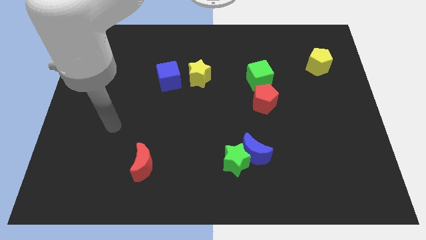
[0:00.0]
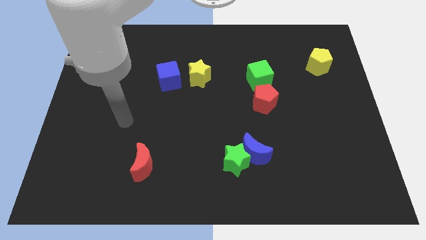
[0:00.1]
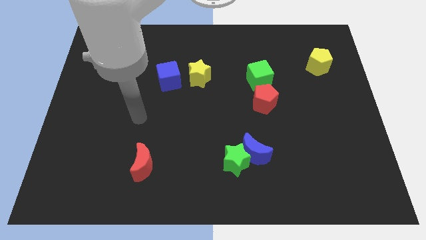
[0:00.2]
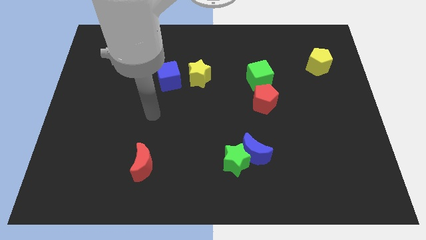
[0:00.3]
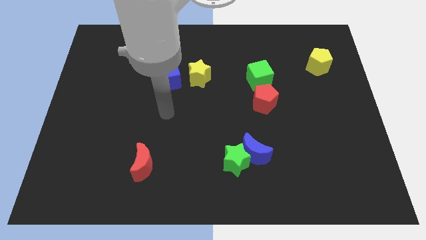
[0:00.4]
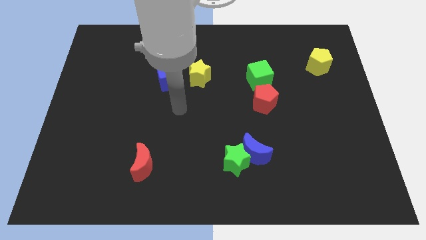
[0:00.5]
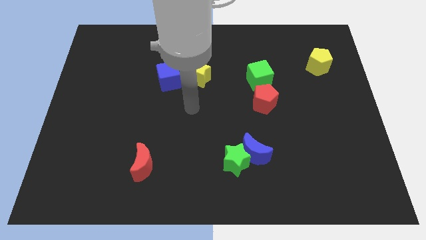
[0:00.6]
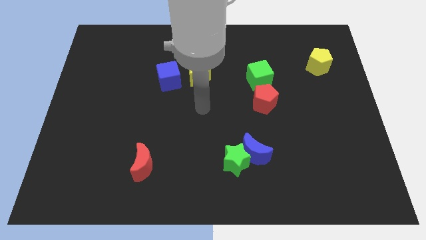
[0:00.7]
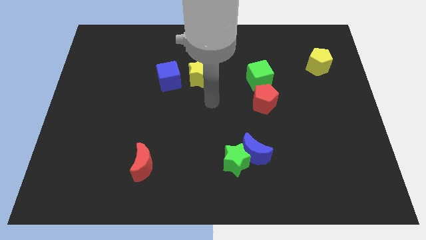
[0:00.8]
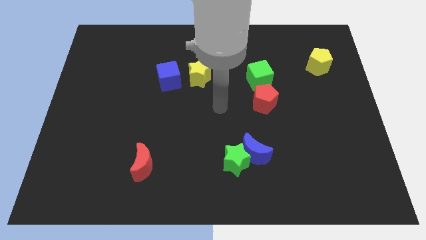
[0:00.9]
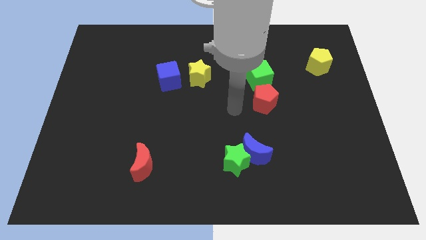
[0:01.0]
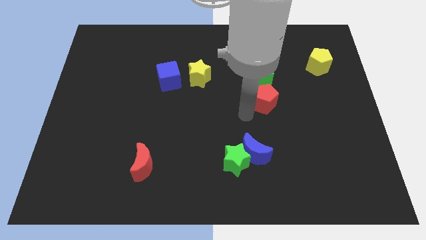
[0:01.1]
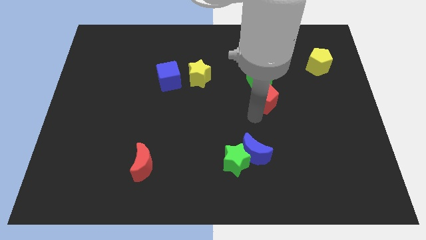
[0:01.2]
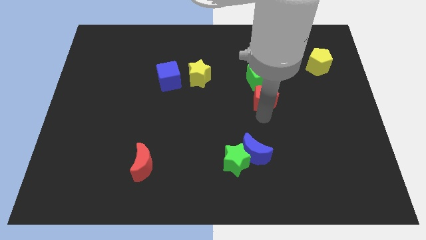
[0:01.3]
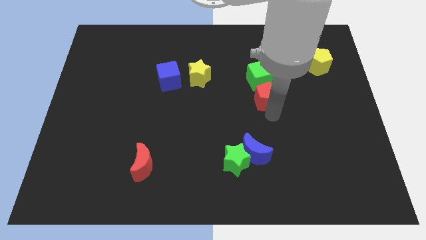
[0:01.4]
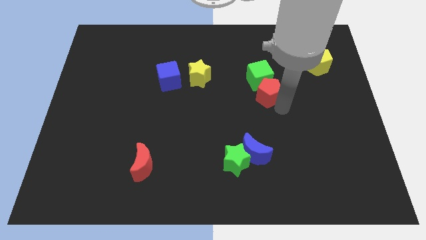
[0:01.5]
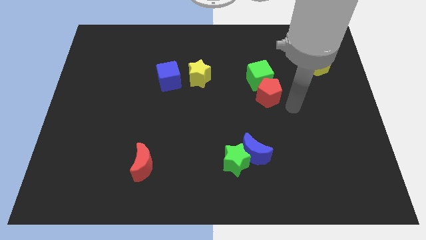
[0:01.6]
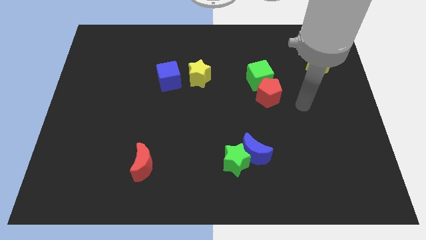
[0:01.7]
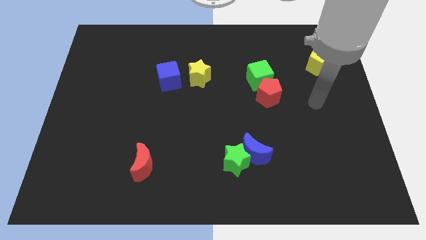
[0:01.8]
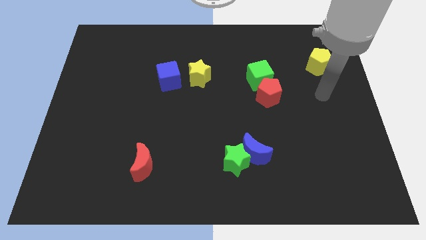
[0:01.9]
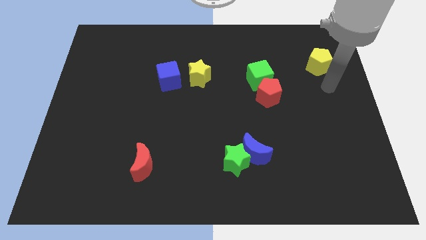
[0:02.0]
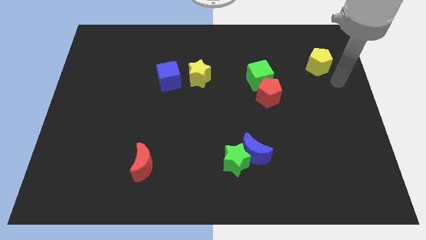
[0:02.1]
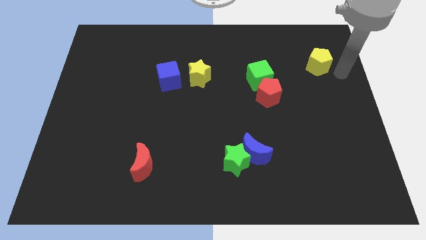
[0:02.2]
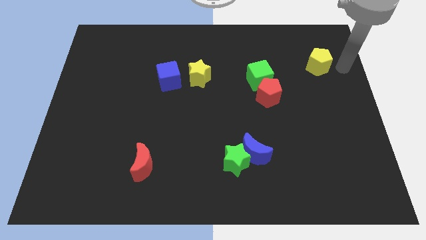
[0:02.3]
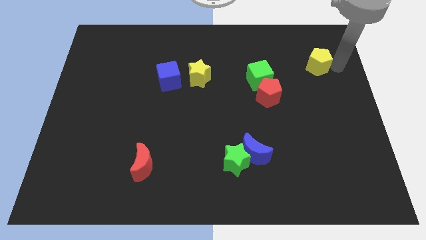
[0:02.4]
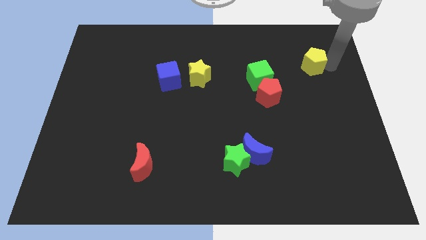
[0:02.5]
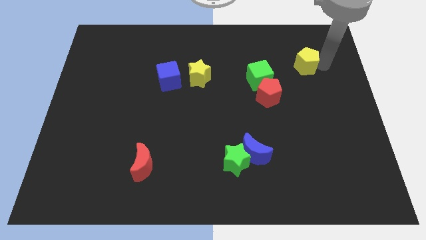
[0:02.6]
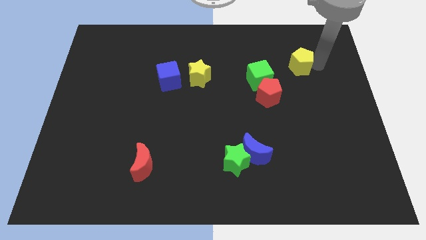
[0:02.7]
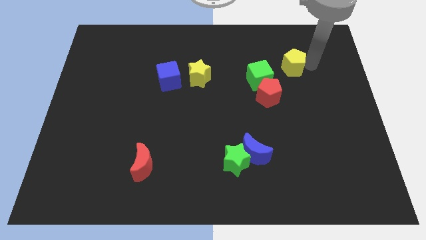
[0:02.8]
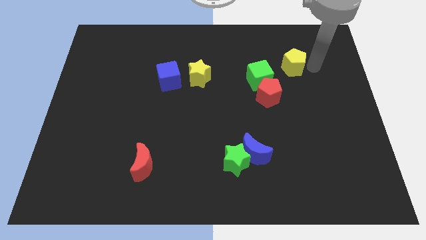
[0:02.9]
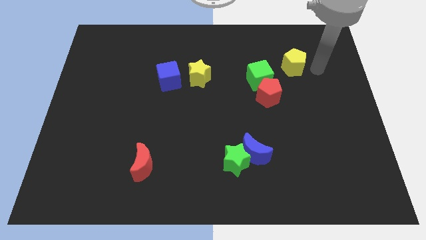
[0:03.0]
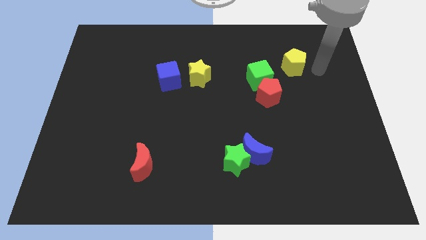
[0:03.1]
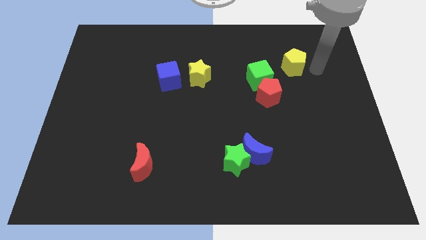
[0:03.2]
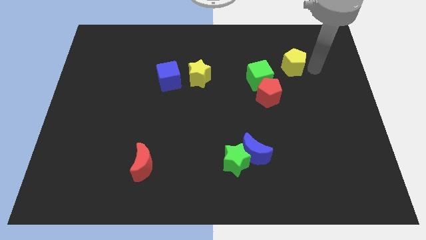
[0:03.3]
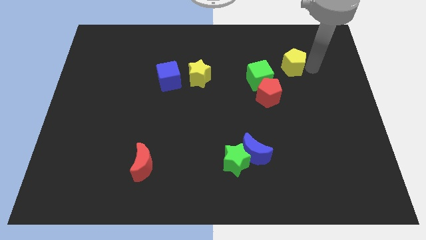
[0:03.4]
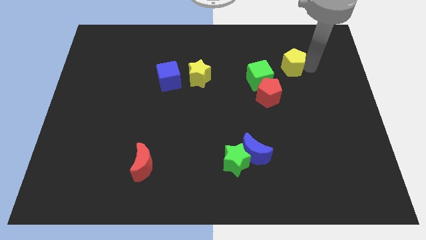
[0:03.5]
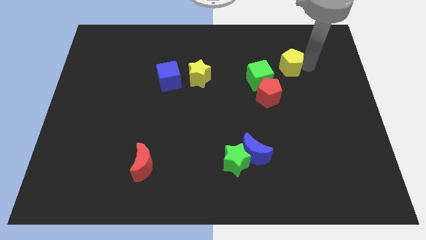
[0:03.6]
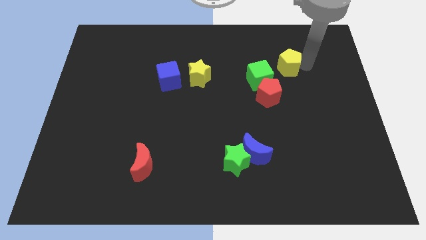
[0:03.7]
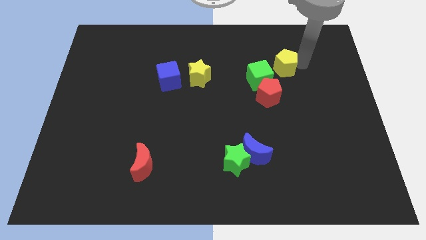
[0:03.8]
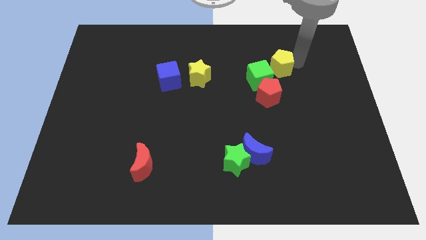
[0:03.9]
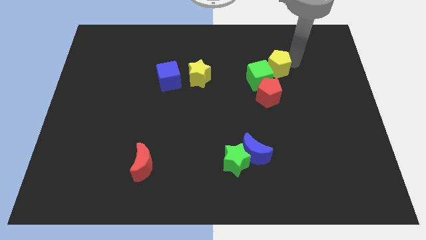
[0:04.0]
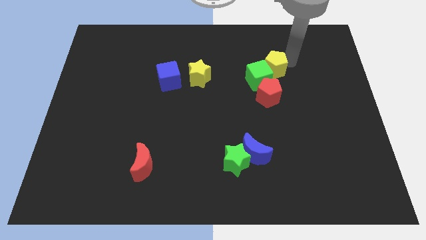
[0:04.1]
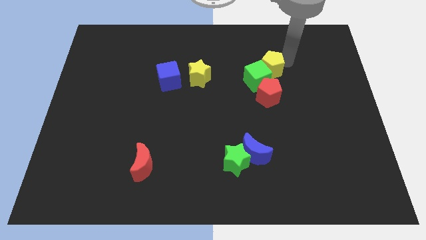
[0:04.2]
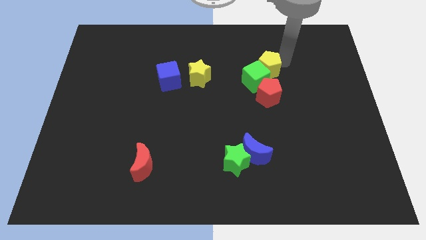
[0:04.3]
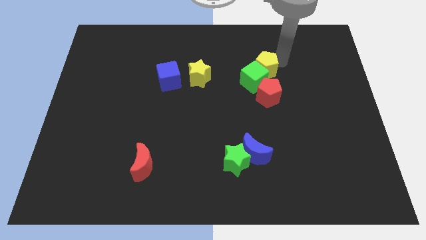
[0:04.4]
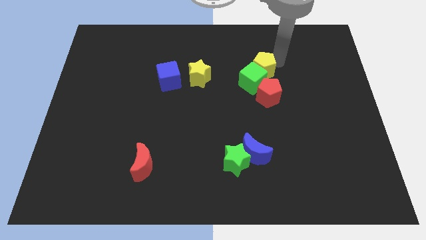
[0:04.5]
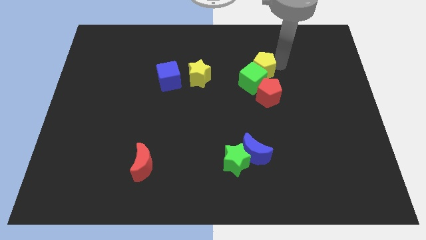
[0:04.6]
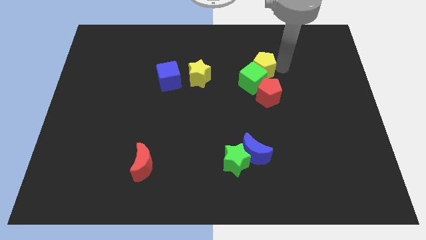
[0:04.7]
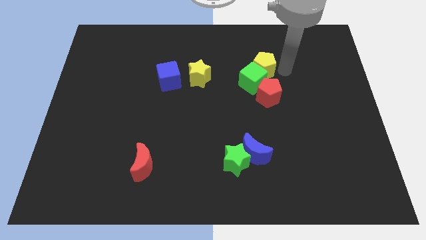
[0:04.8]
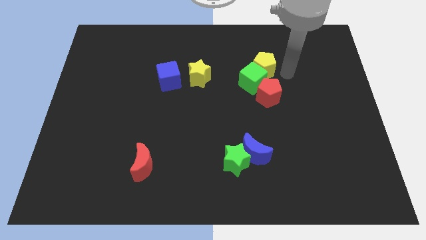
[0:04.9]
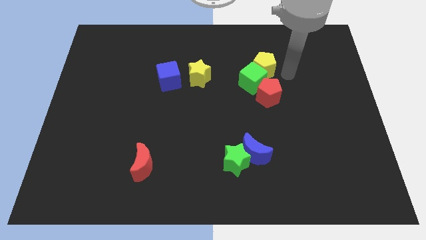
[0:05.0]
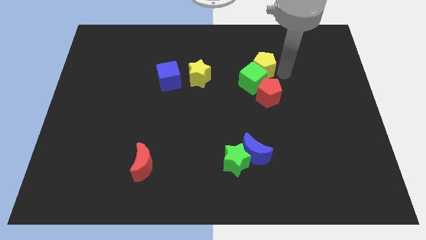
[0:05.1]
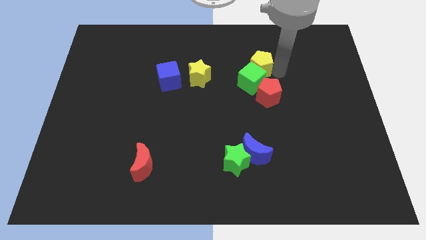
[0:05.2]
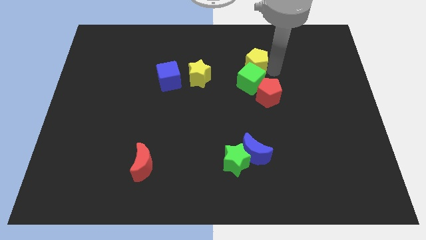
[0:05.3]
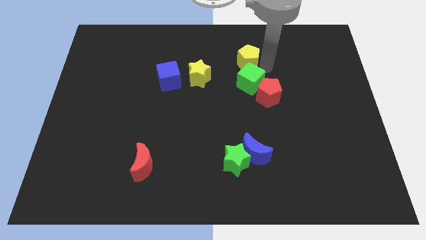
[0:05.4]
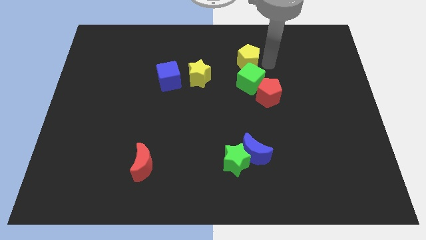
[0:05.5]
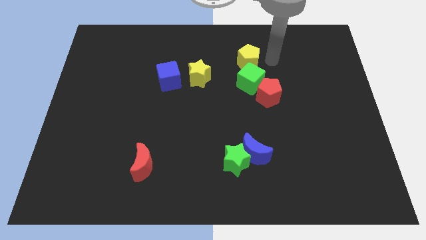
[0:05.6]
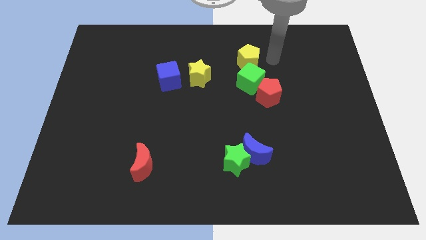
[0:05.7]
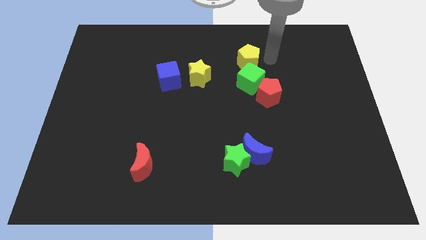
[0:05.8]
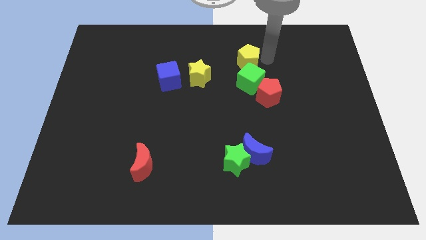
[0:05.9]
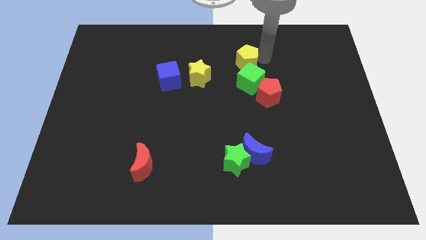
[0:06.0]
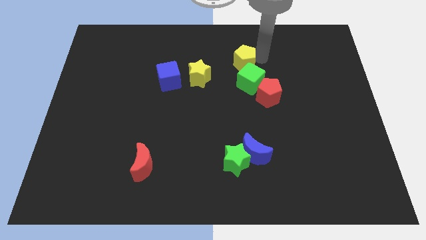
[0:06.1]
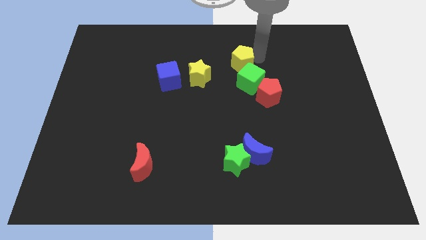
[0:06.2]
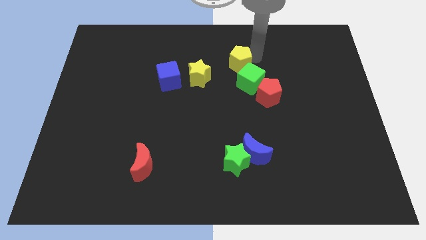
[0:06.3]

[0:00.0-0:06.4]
push the yellow pentagon to the top right side of the yellow star
